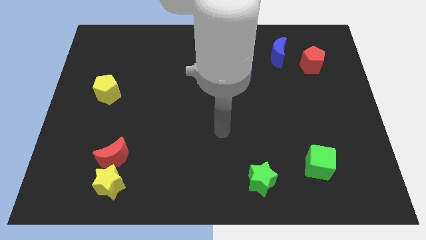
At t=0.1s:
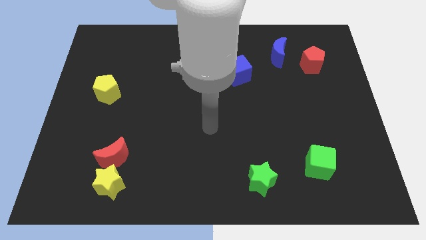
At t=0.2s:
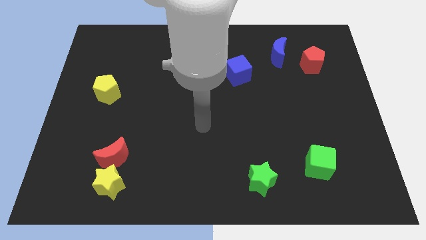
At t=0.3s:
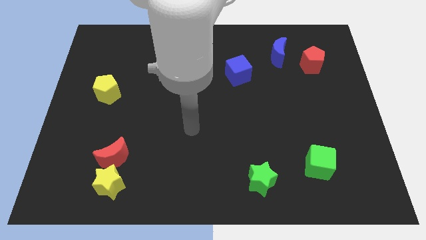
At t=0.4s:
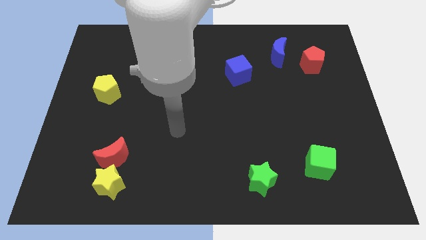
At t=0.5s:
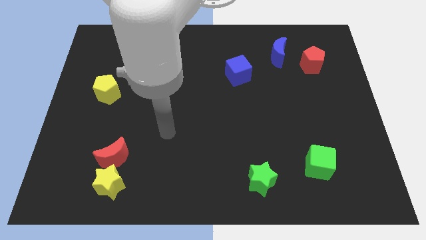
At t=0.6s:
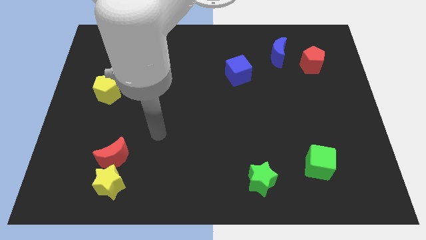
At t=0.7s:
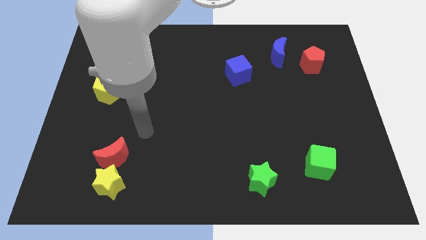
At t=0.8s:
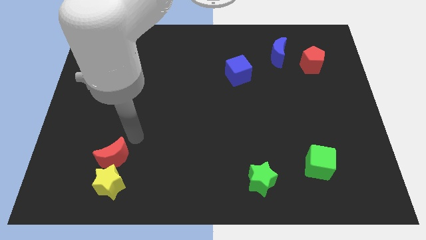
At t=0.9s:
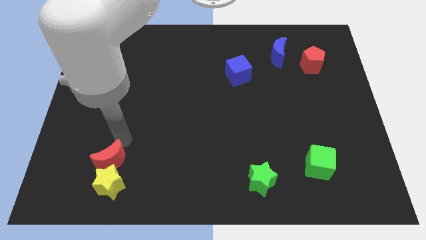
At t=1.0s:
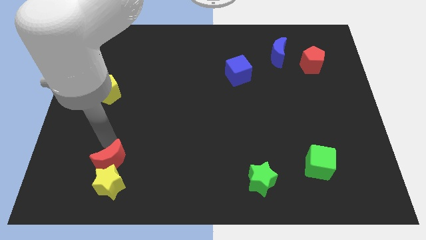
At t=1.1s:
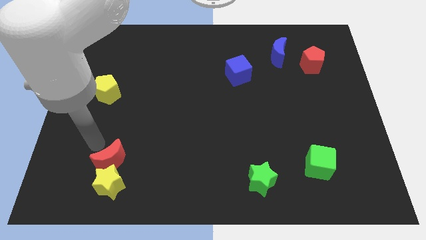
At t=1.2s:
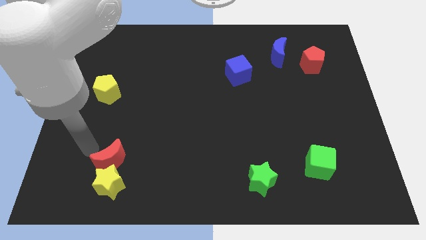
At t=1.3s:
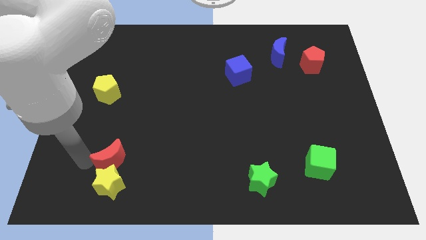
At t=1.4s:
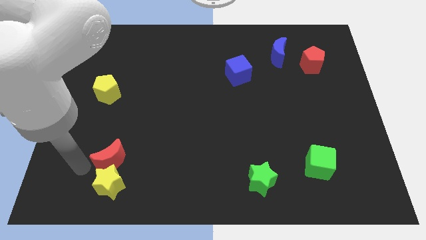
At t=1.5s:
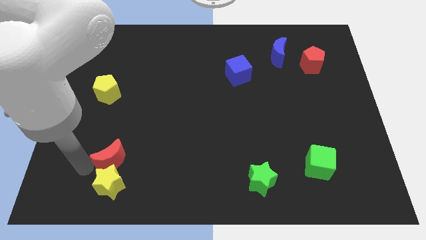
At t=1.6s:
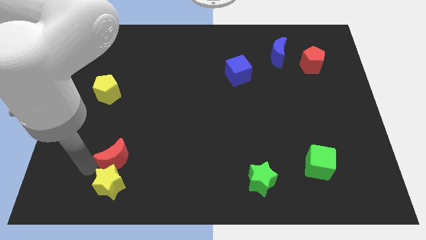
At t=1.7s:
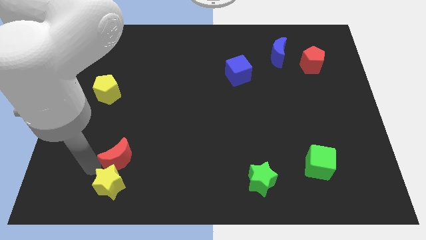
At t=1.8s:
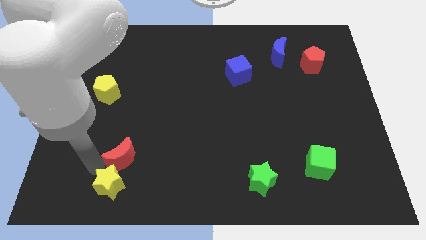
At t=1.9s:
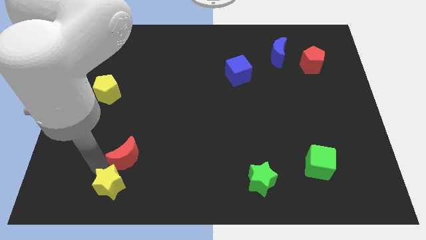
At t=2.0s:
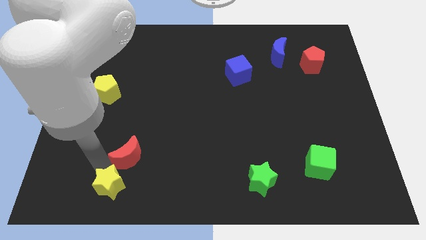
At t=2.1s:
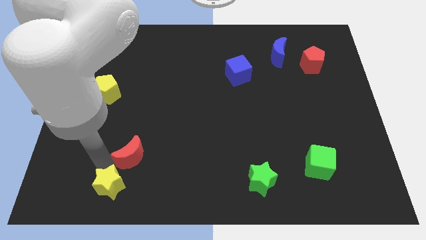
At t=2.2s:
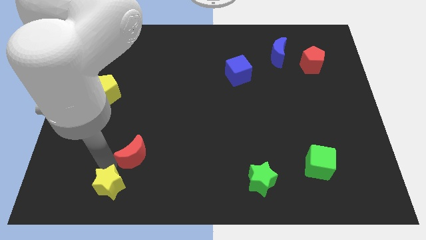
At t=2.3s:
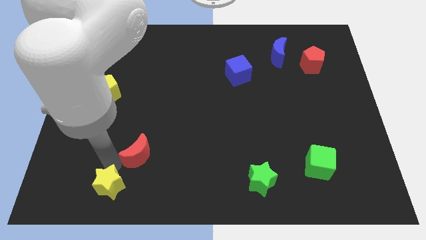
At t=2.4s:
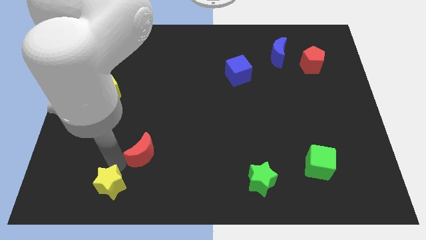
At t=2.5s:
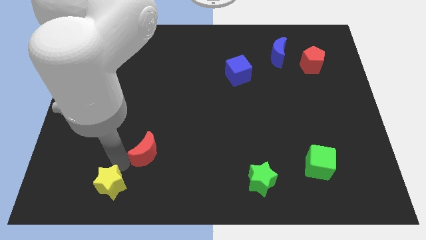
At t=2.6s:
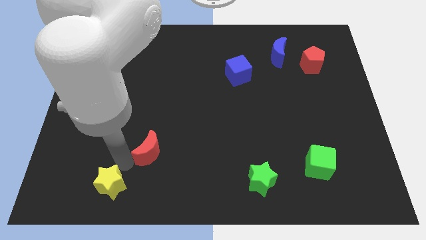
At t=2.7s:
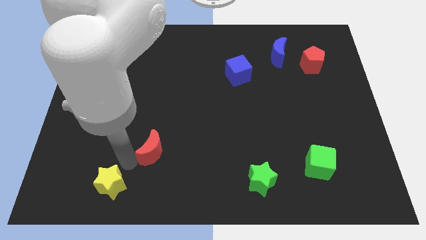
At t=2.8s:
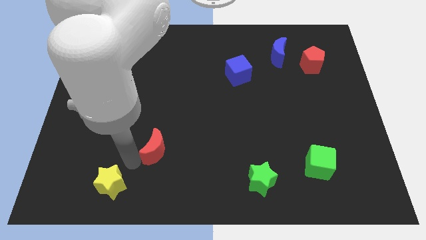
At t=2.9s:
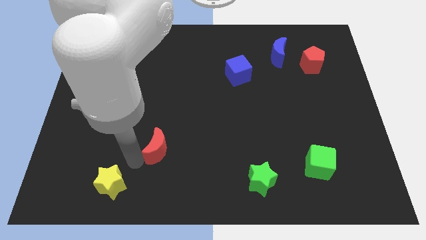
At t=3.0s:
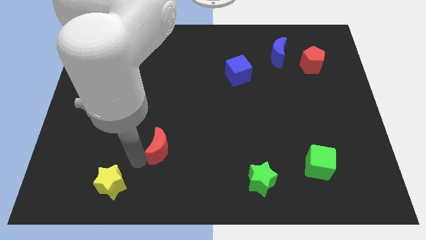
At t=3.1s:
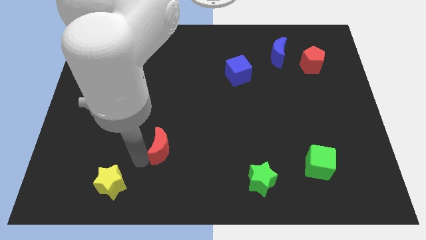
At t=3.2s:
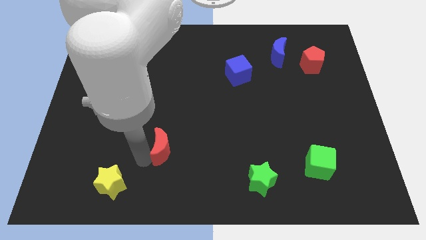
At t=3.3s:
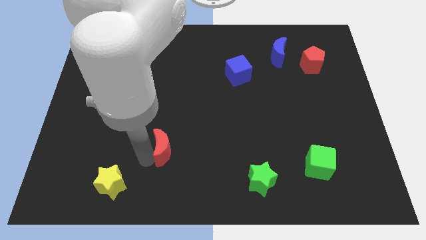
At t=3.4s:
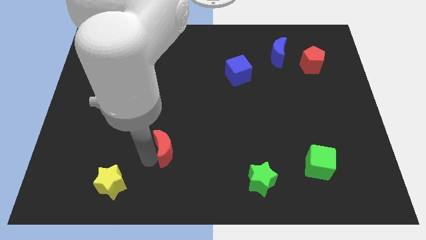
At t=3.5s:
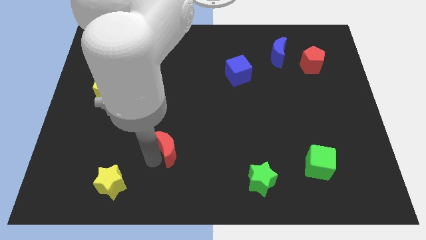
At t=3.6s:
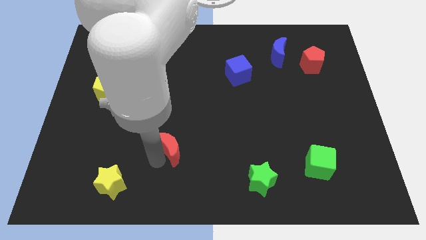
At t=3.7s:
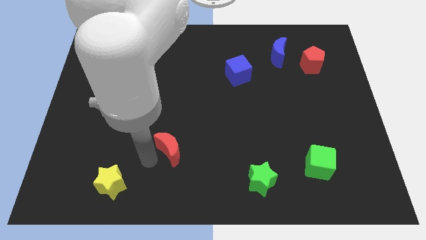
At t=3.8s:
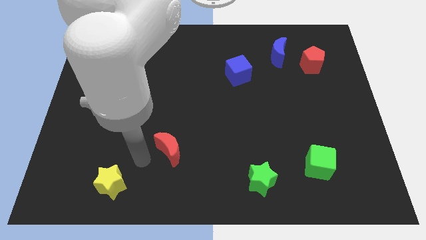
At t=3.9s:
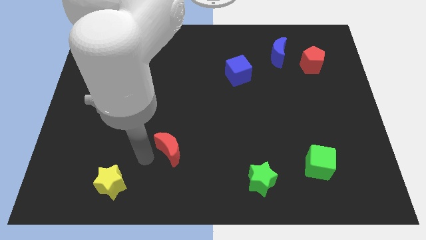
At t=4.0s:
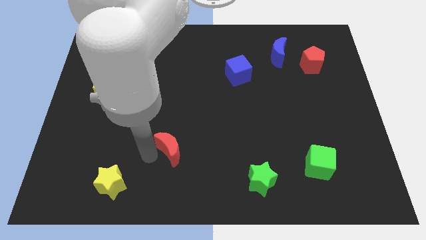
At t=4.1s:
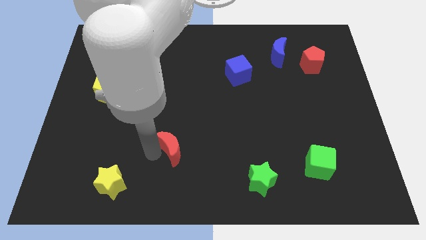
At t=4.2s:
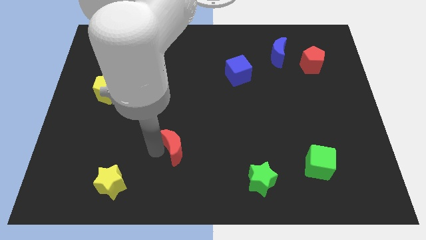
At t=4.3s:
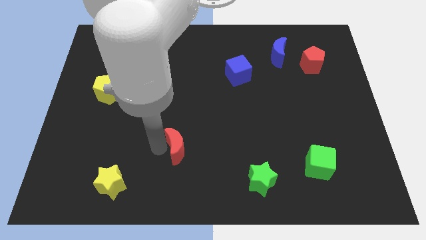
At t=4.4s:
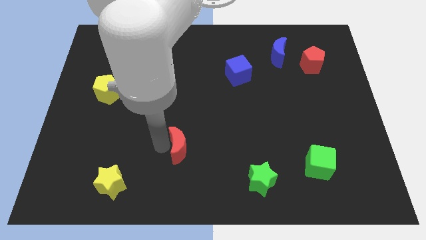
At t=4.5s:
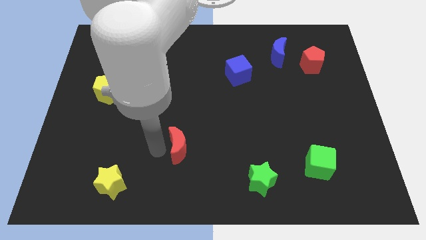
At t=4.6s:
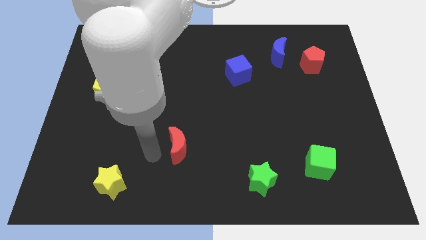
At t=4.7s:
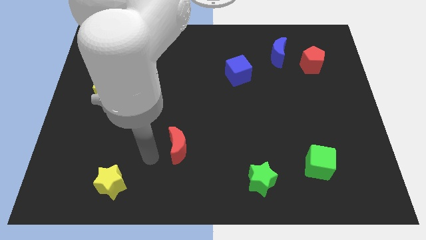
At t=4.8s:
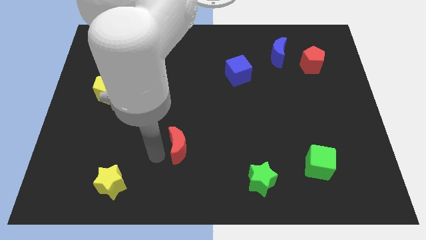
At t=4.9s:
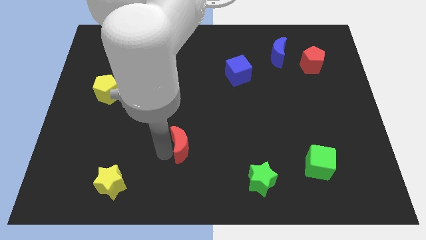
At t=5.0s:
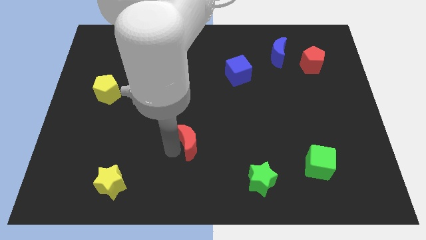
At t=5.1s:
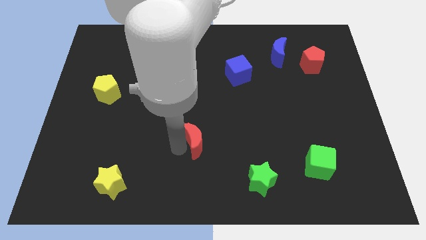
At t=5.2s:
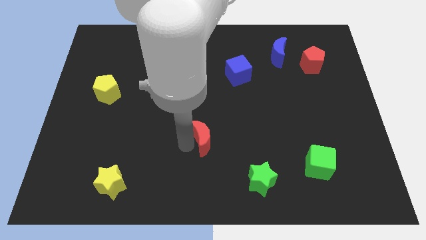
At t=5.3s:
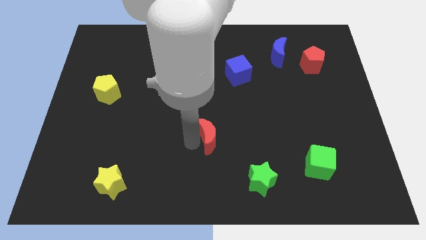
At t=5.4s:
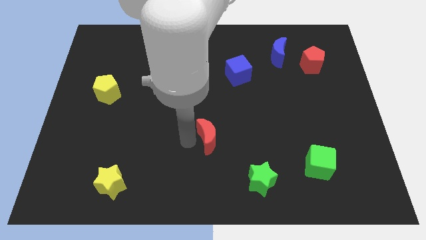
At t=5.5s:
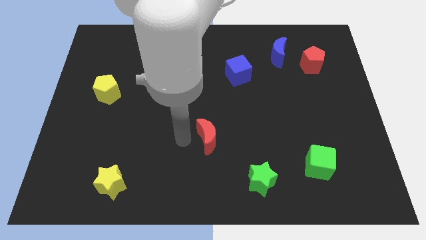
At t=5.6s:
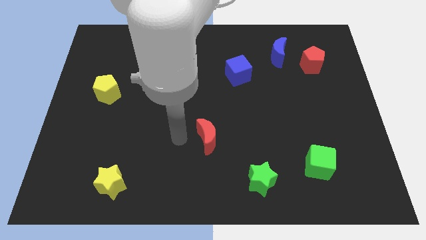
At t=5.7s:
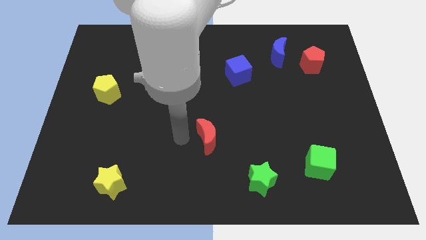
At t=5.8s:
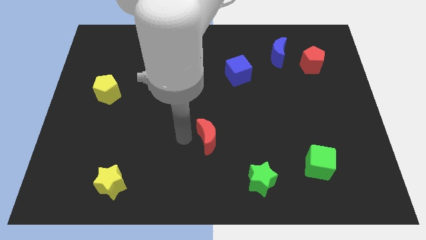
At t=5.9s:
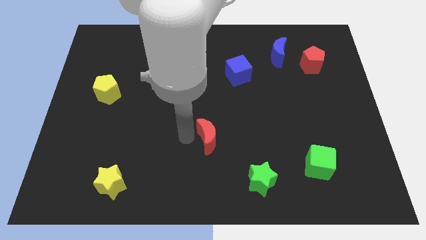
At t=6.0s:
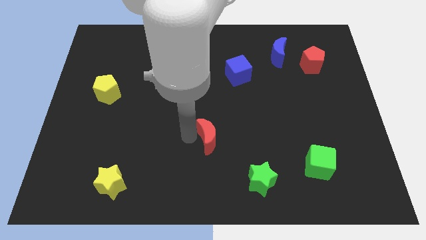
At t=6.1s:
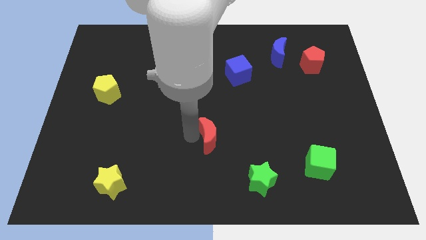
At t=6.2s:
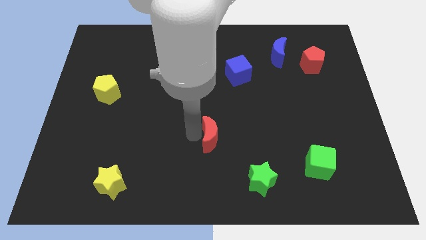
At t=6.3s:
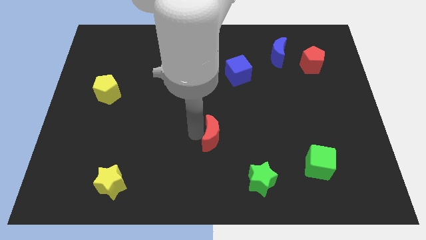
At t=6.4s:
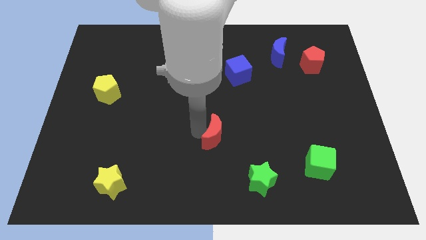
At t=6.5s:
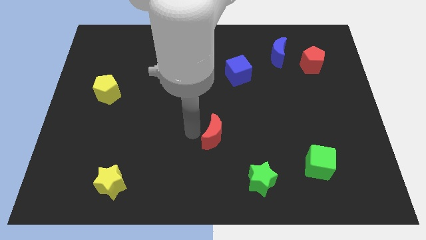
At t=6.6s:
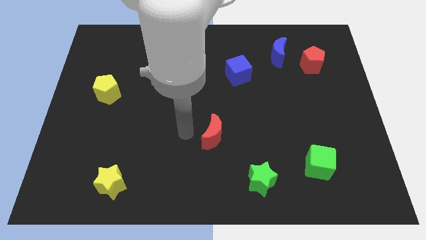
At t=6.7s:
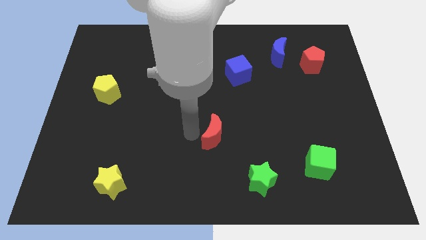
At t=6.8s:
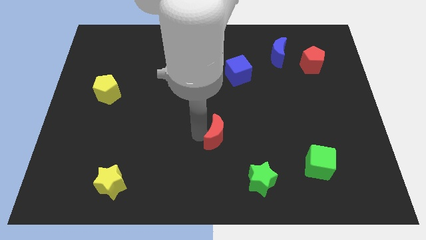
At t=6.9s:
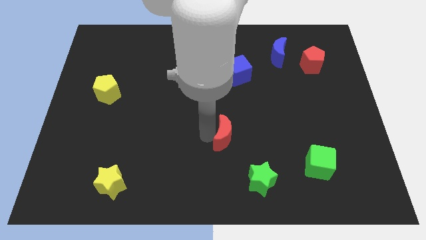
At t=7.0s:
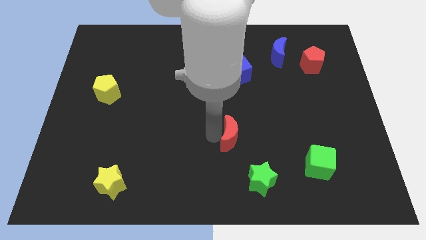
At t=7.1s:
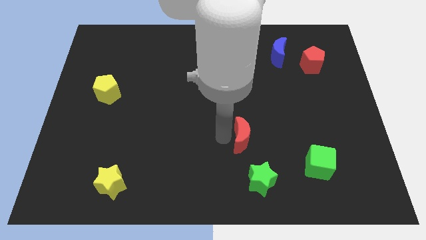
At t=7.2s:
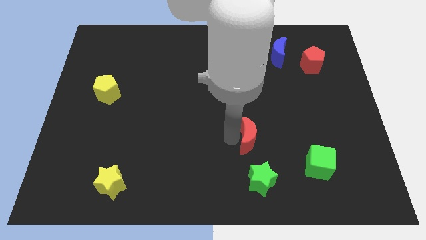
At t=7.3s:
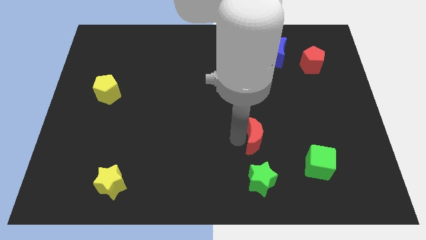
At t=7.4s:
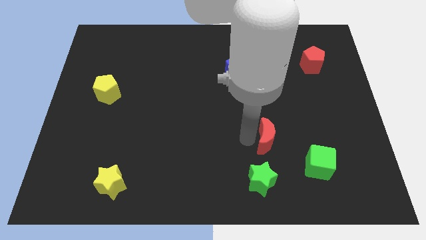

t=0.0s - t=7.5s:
move the red moon to the top left of the green cube
